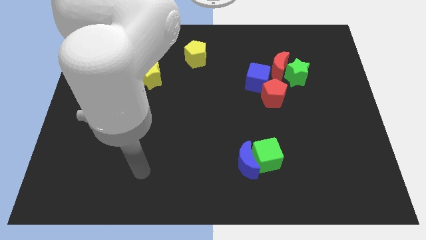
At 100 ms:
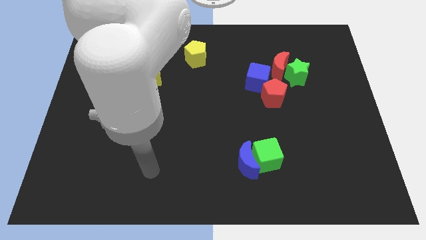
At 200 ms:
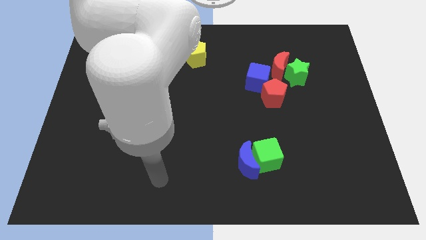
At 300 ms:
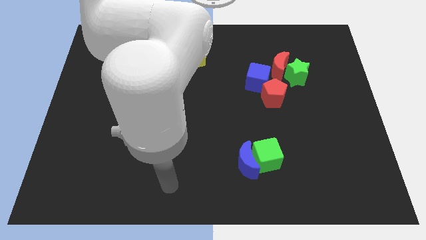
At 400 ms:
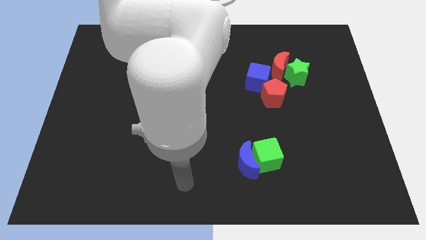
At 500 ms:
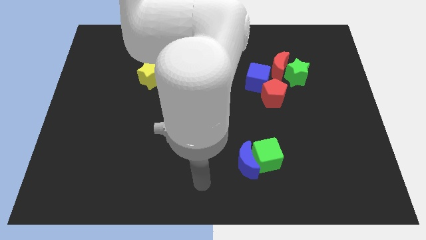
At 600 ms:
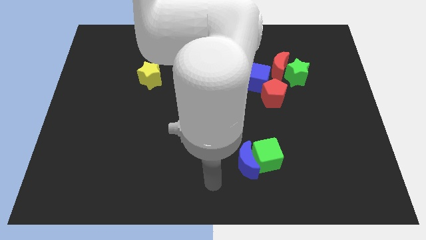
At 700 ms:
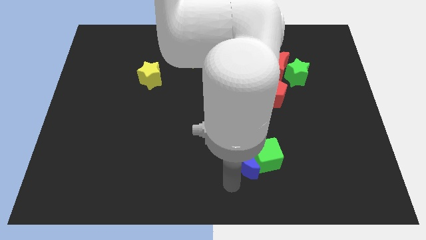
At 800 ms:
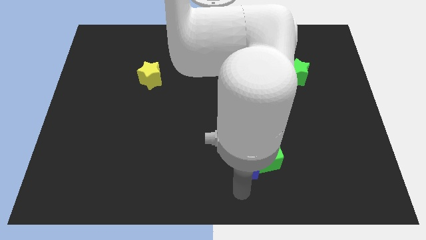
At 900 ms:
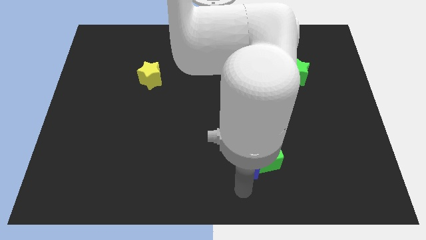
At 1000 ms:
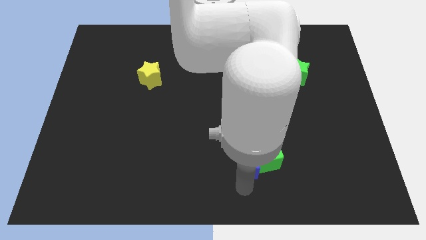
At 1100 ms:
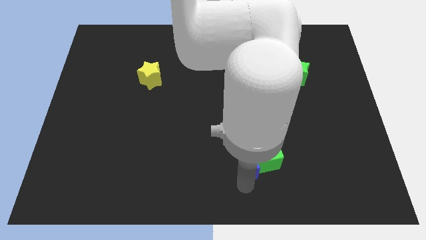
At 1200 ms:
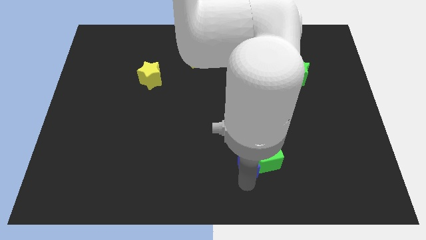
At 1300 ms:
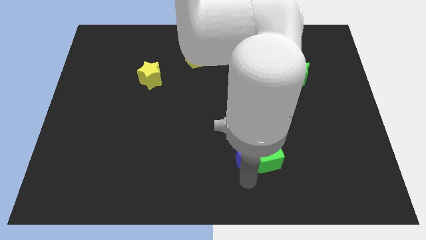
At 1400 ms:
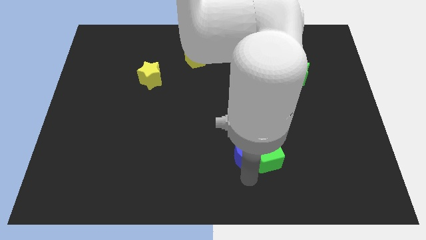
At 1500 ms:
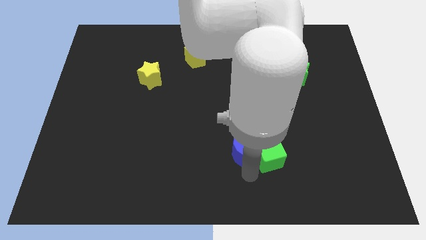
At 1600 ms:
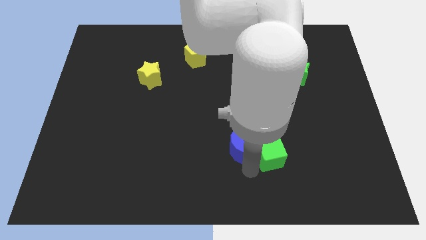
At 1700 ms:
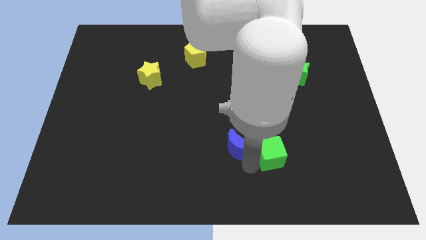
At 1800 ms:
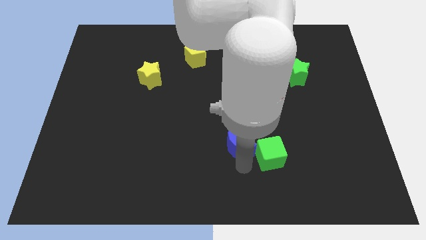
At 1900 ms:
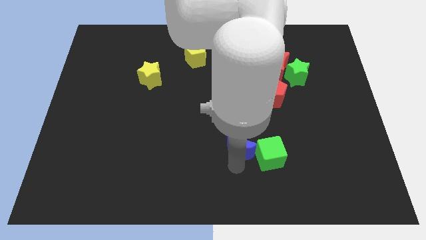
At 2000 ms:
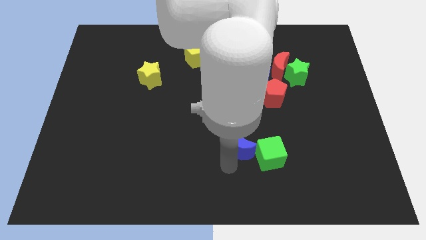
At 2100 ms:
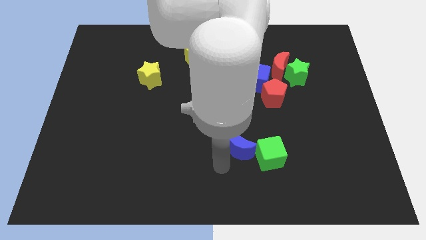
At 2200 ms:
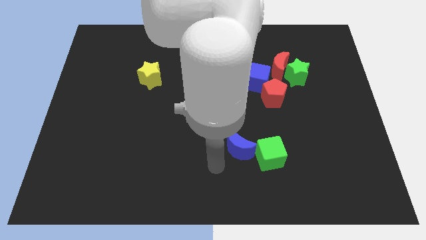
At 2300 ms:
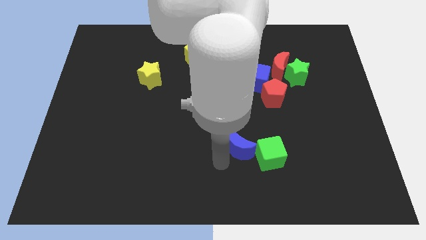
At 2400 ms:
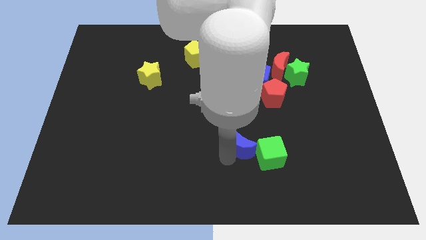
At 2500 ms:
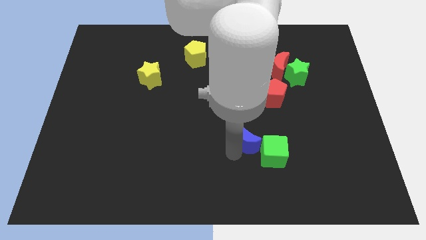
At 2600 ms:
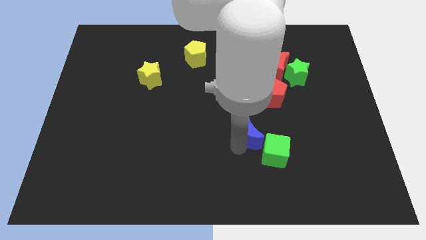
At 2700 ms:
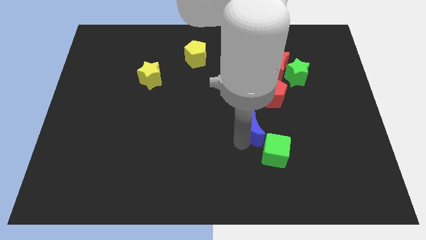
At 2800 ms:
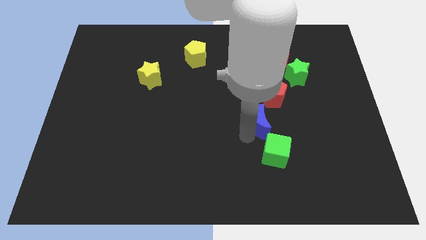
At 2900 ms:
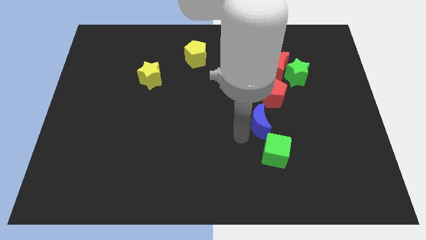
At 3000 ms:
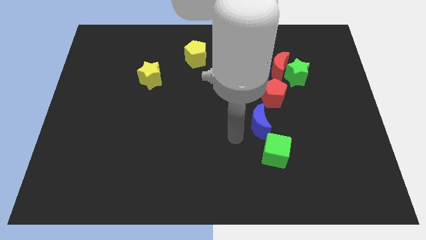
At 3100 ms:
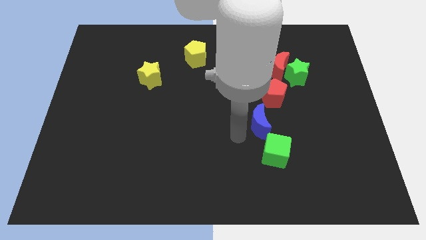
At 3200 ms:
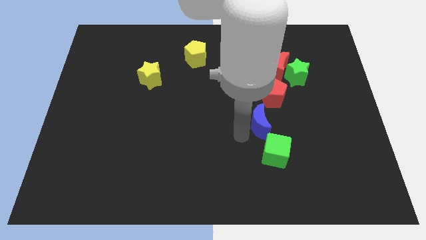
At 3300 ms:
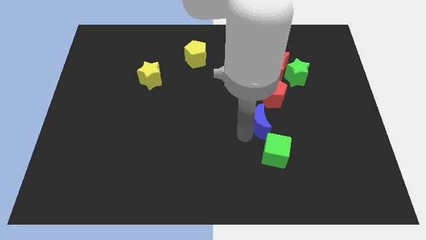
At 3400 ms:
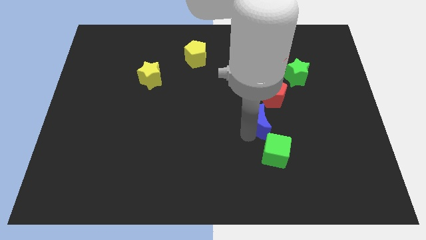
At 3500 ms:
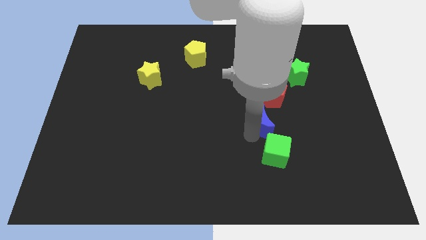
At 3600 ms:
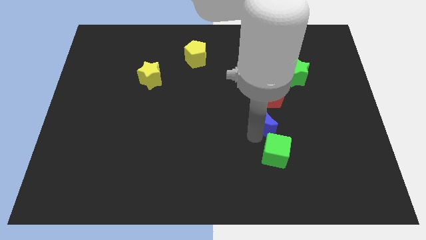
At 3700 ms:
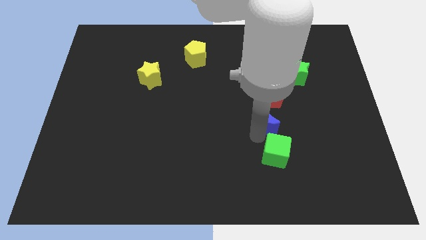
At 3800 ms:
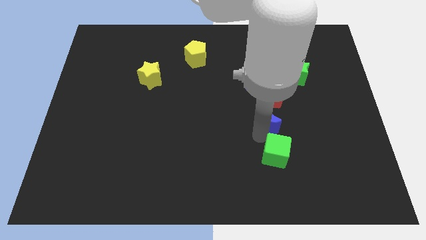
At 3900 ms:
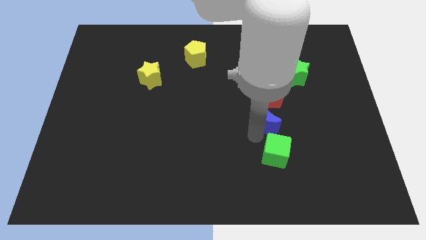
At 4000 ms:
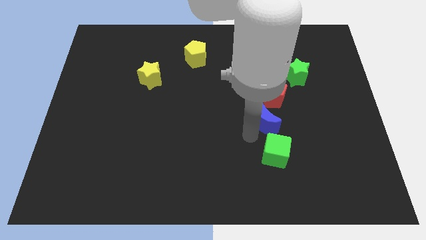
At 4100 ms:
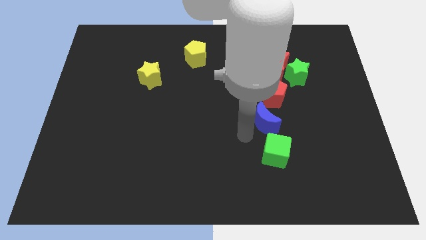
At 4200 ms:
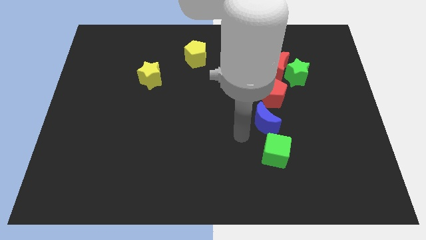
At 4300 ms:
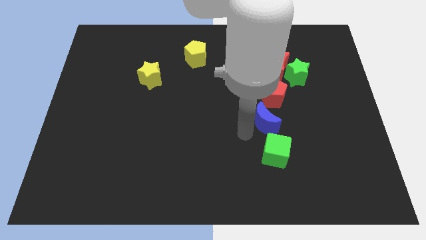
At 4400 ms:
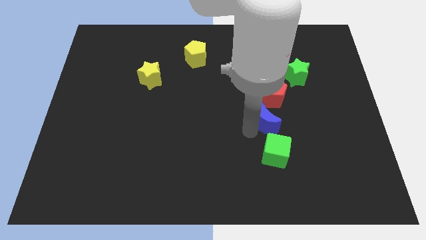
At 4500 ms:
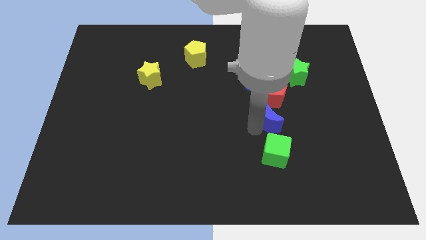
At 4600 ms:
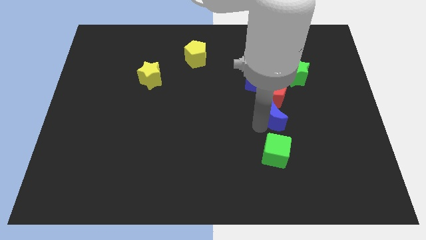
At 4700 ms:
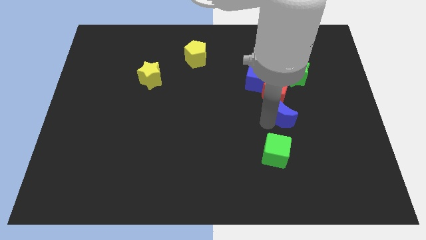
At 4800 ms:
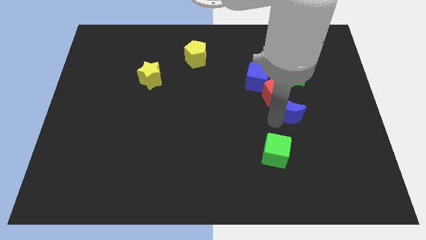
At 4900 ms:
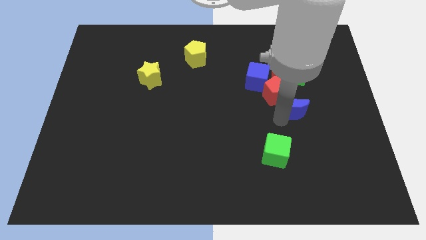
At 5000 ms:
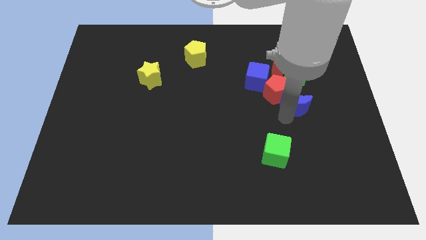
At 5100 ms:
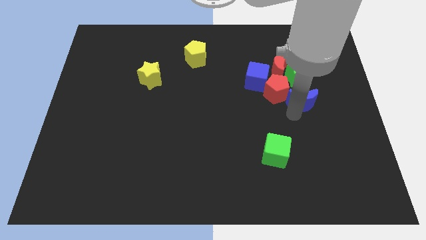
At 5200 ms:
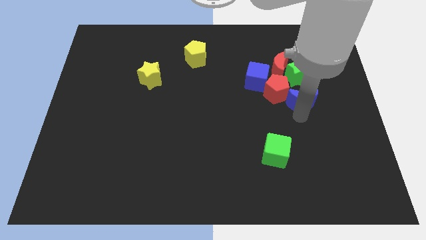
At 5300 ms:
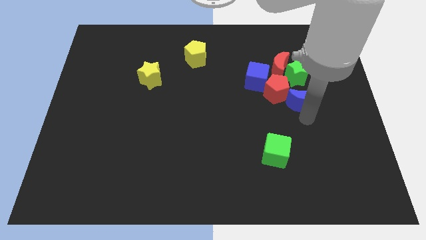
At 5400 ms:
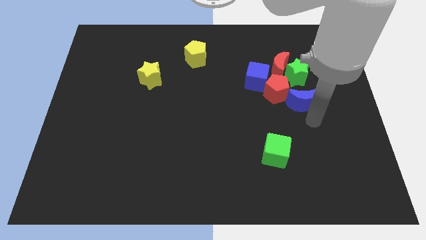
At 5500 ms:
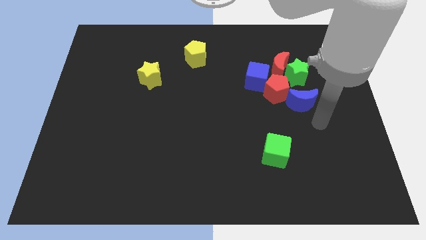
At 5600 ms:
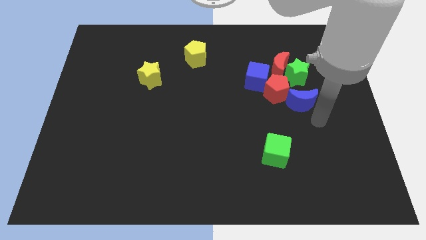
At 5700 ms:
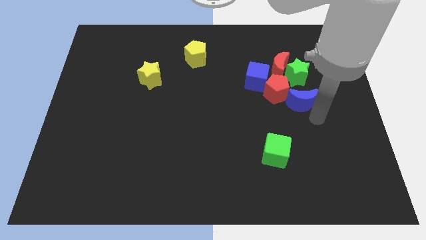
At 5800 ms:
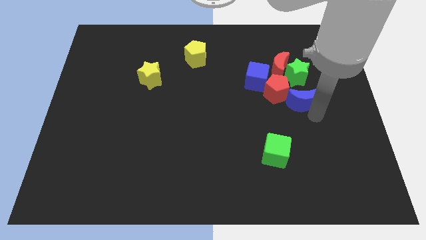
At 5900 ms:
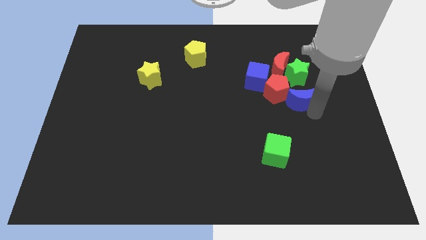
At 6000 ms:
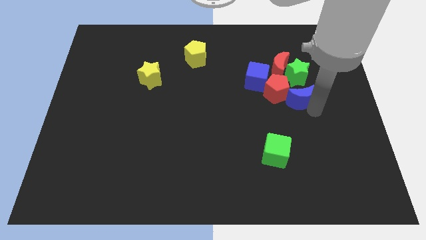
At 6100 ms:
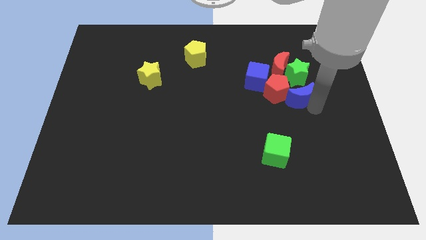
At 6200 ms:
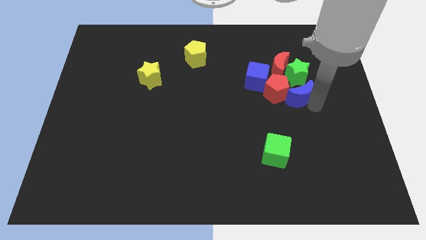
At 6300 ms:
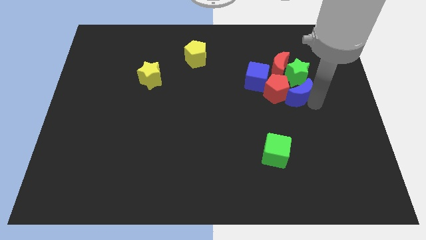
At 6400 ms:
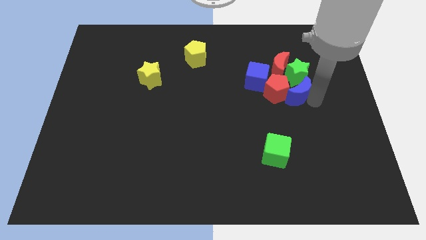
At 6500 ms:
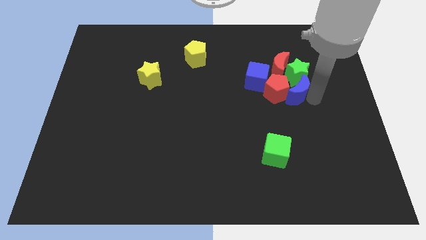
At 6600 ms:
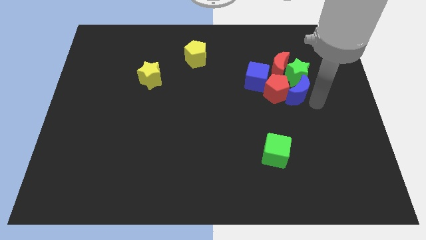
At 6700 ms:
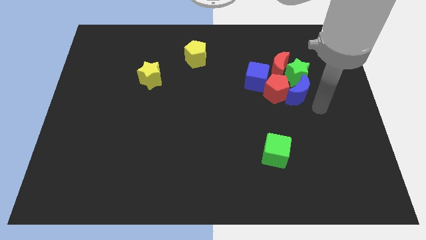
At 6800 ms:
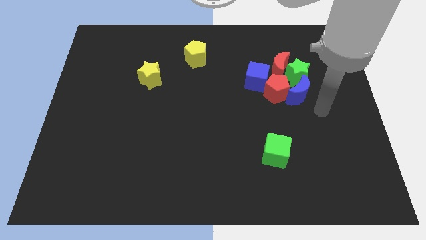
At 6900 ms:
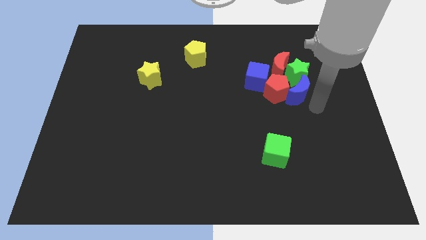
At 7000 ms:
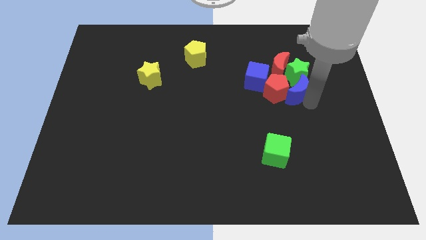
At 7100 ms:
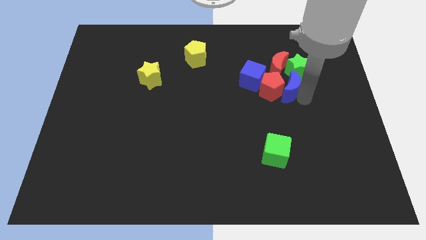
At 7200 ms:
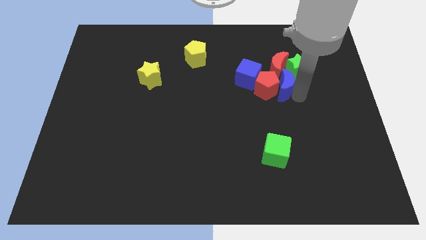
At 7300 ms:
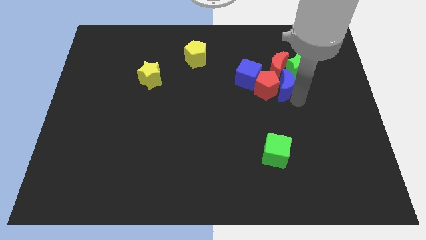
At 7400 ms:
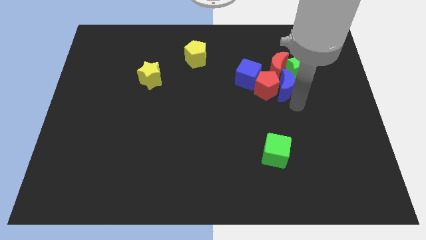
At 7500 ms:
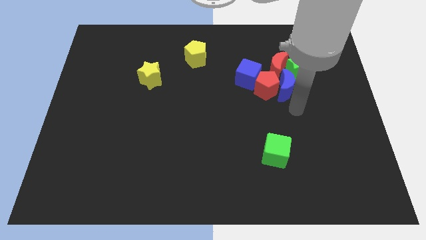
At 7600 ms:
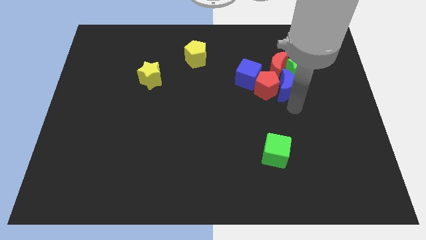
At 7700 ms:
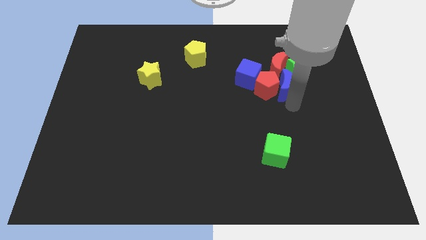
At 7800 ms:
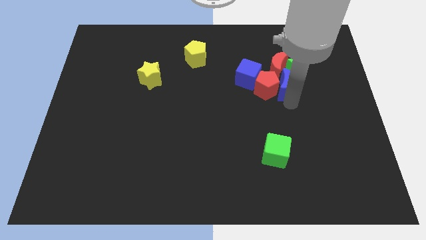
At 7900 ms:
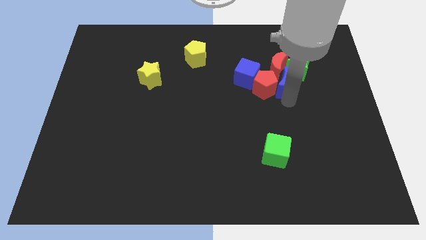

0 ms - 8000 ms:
push the blue moon next to the red moon
